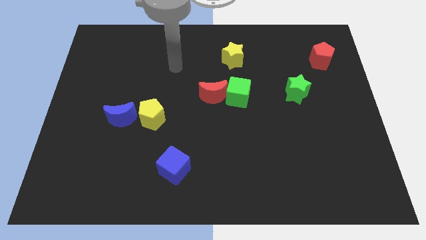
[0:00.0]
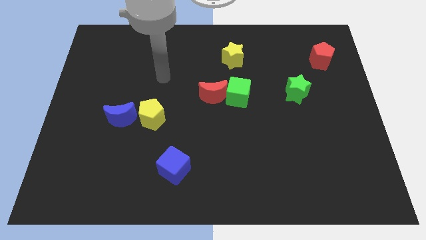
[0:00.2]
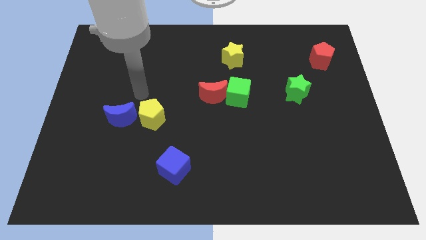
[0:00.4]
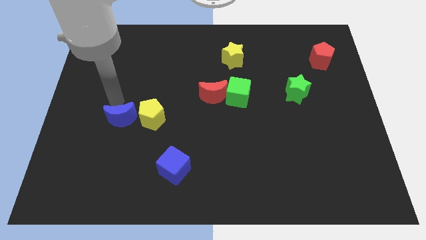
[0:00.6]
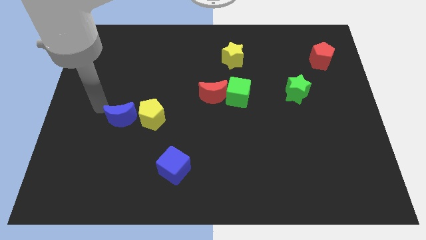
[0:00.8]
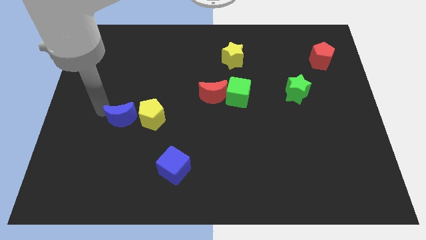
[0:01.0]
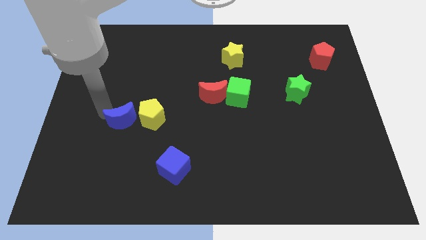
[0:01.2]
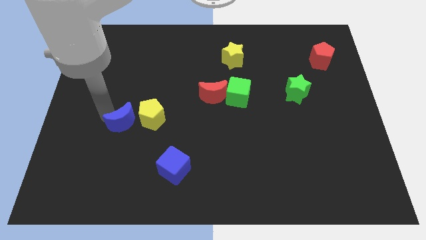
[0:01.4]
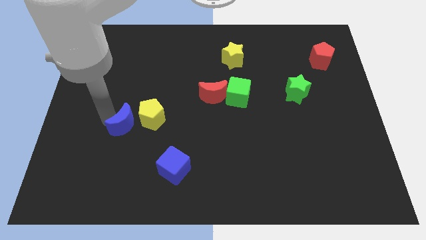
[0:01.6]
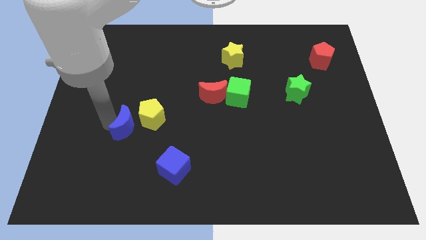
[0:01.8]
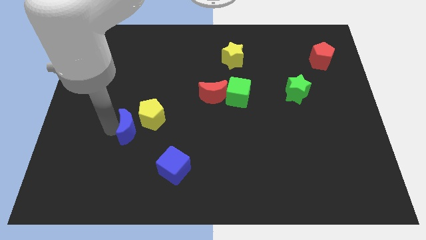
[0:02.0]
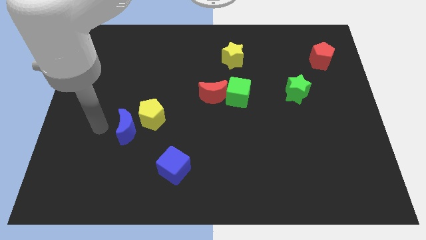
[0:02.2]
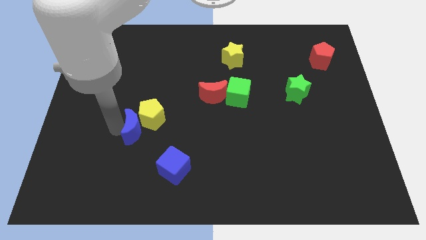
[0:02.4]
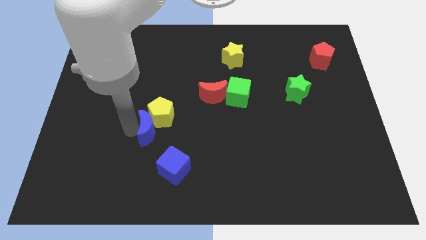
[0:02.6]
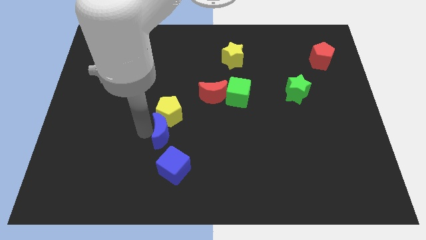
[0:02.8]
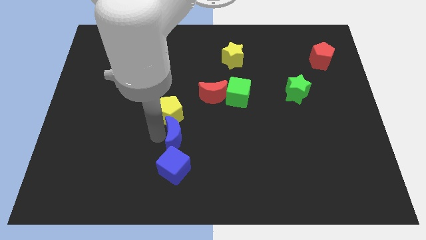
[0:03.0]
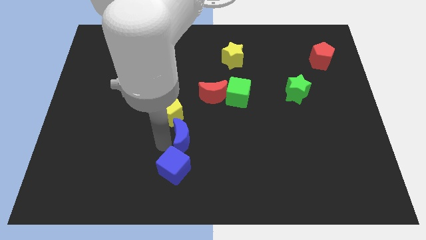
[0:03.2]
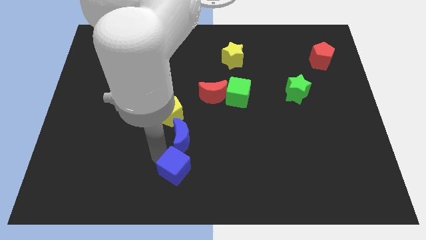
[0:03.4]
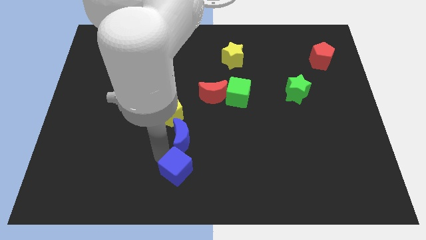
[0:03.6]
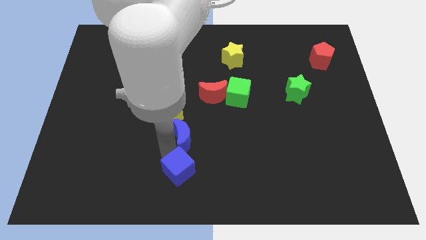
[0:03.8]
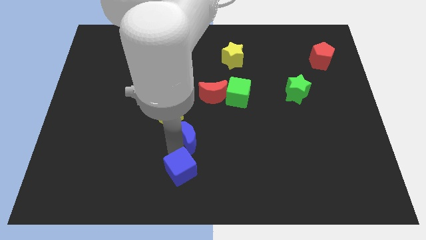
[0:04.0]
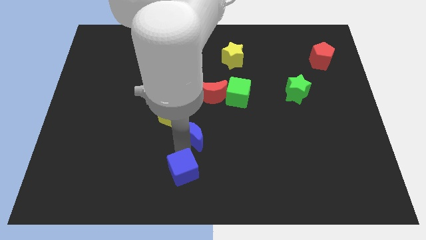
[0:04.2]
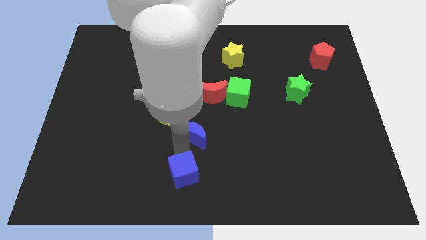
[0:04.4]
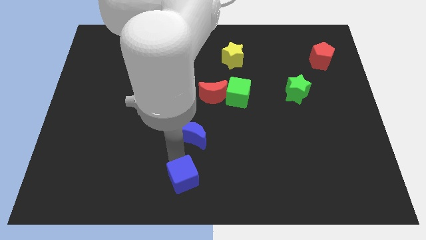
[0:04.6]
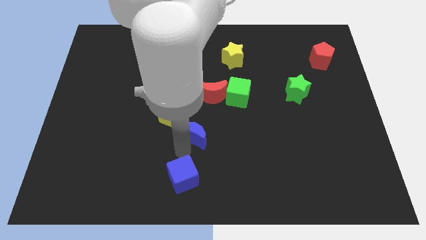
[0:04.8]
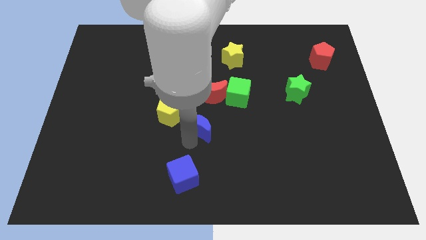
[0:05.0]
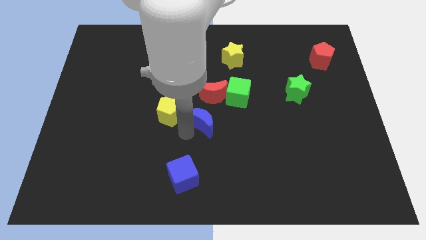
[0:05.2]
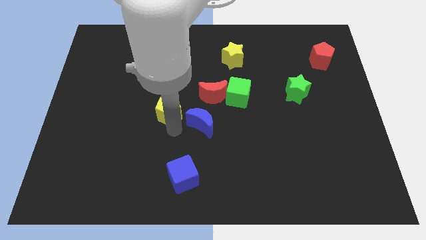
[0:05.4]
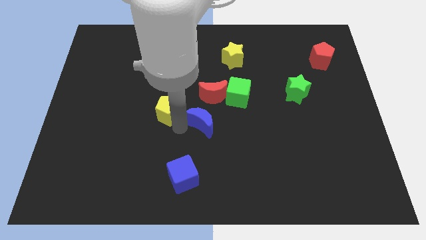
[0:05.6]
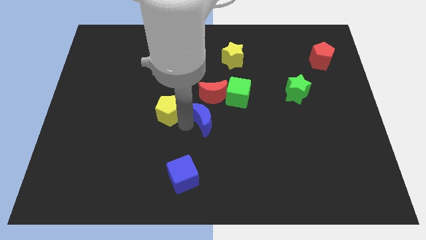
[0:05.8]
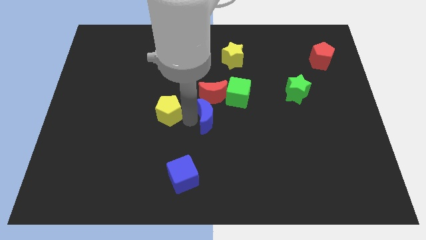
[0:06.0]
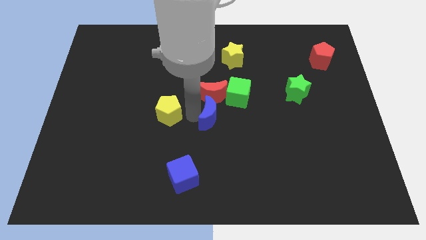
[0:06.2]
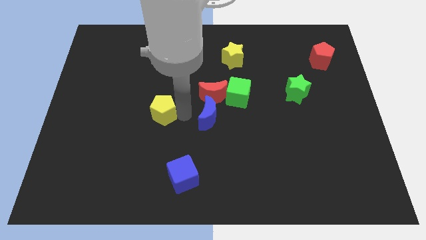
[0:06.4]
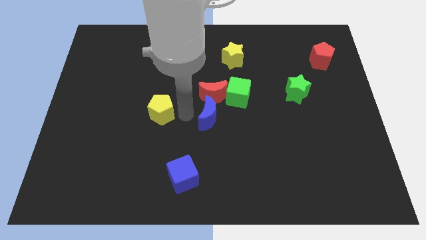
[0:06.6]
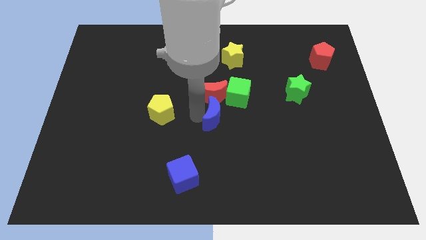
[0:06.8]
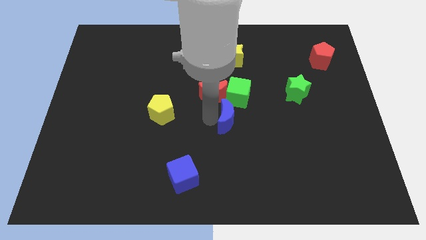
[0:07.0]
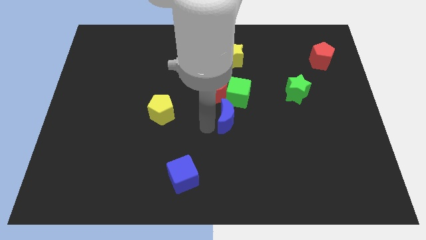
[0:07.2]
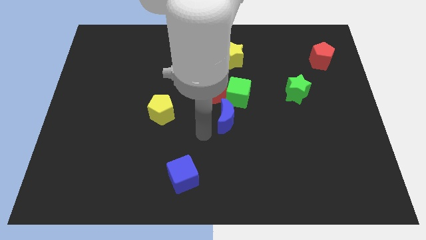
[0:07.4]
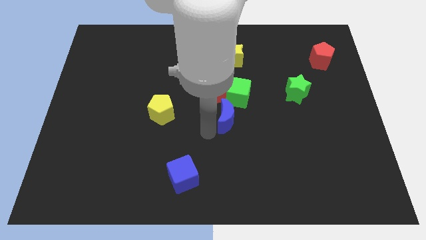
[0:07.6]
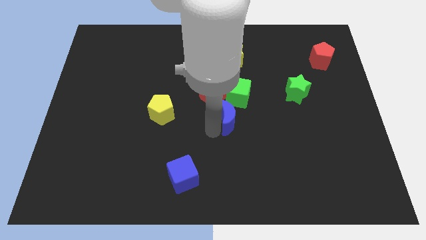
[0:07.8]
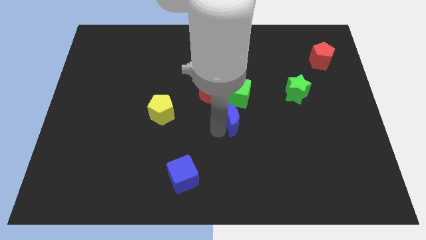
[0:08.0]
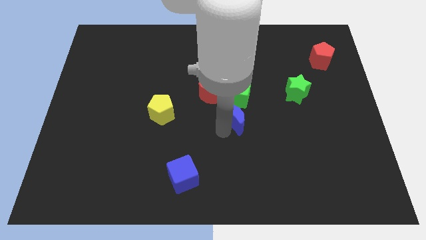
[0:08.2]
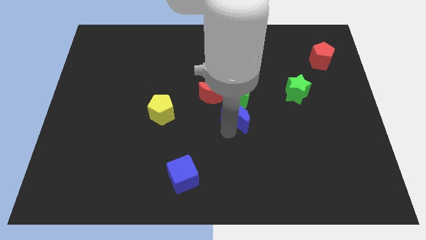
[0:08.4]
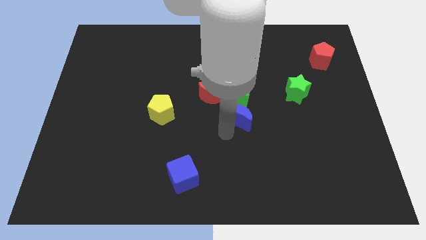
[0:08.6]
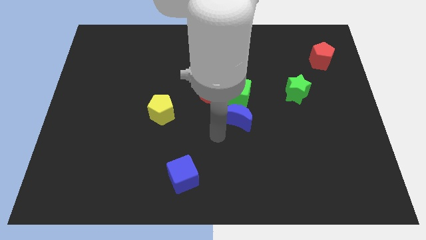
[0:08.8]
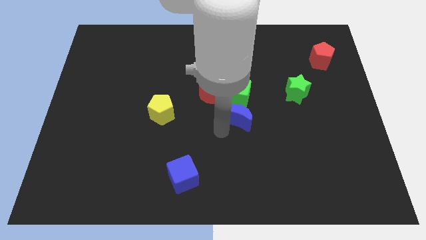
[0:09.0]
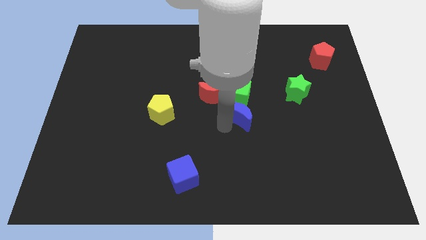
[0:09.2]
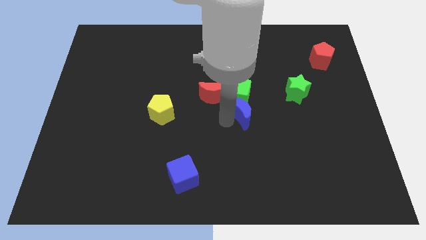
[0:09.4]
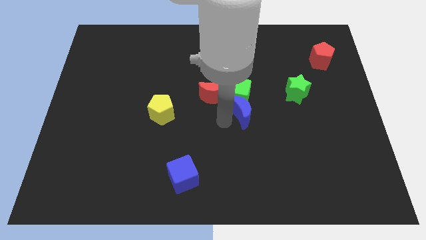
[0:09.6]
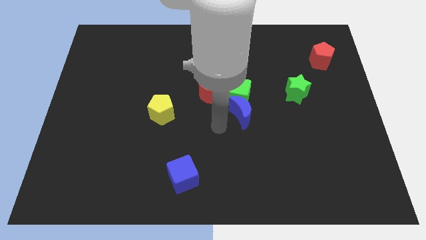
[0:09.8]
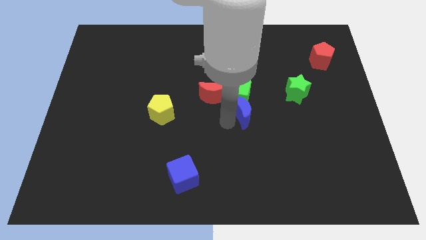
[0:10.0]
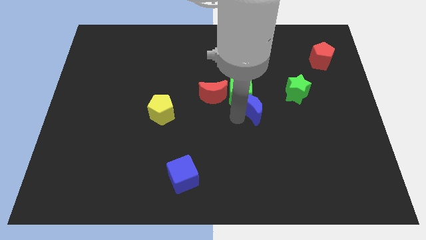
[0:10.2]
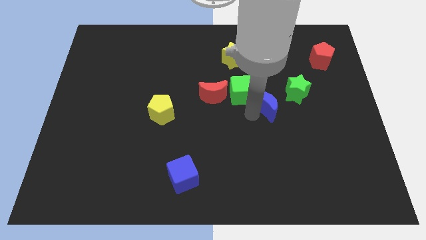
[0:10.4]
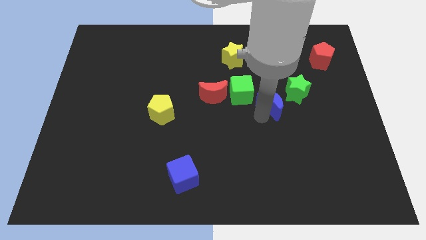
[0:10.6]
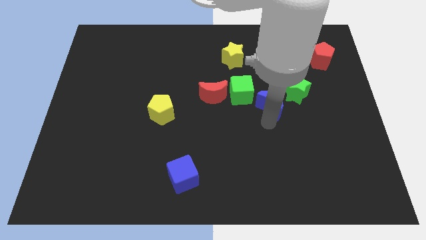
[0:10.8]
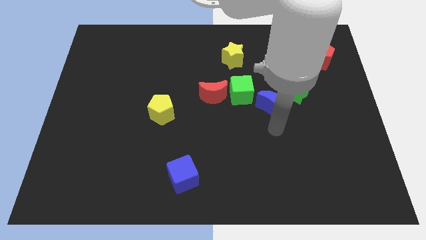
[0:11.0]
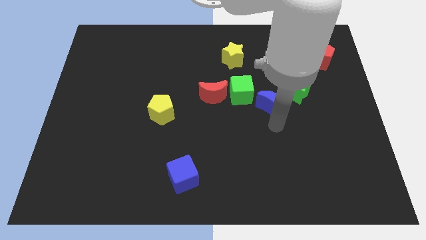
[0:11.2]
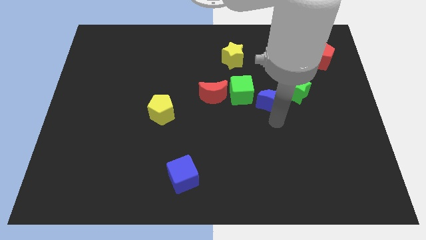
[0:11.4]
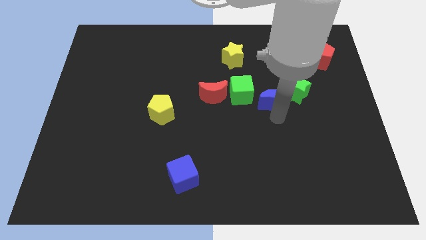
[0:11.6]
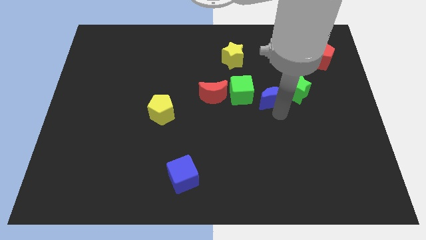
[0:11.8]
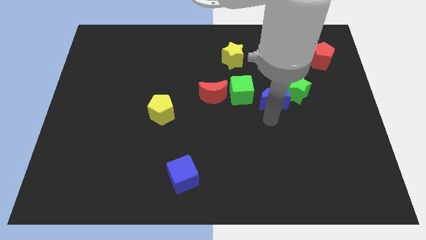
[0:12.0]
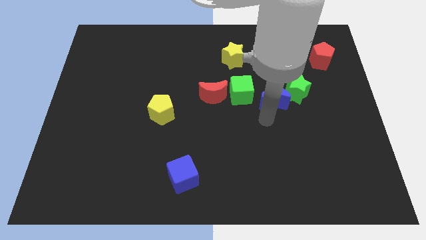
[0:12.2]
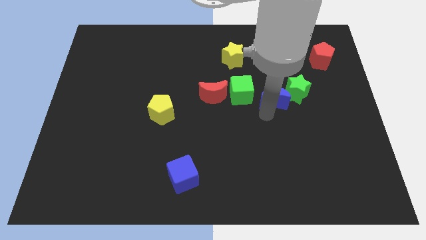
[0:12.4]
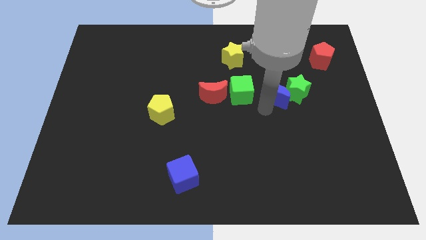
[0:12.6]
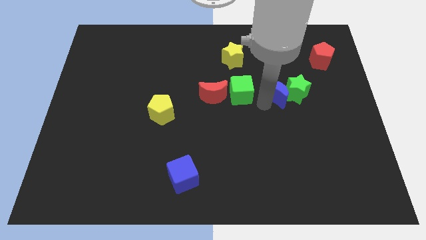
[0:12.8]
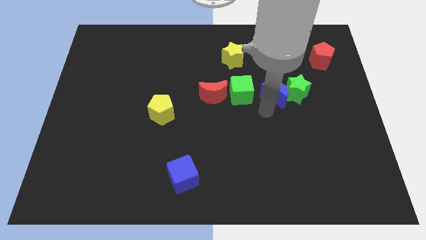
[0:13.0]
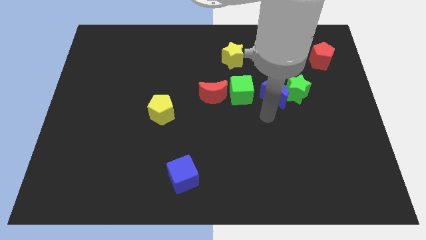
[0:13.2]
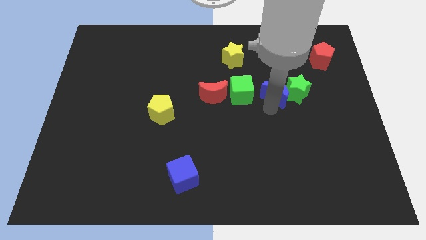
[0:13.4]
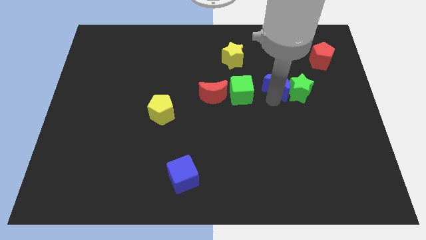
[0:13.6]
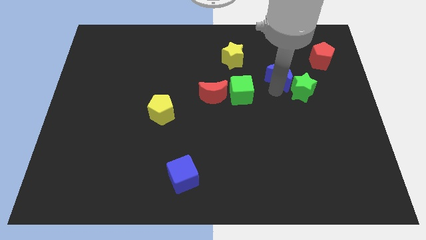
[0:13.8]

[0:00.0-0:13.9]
push the blue moon to the top of the green star
